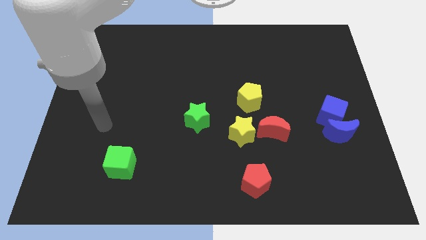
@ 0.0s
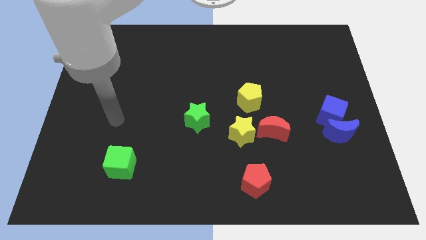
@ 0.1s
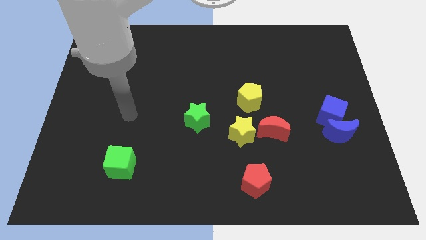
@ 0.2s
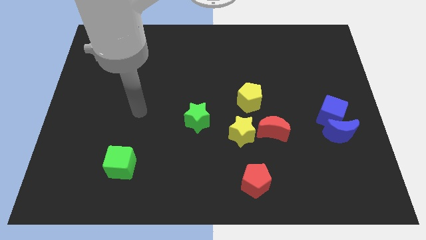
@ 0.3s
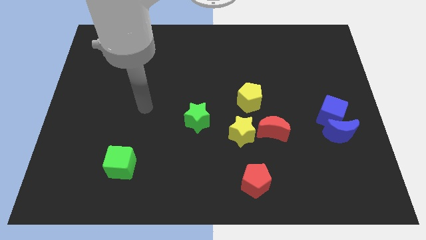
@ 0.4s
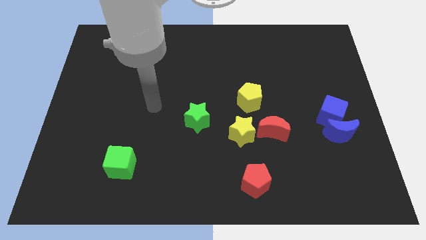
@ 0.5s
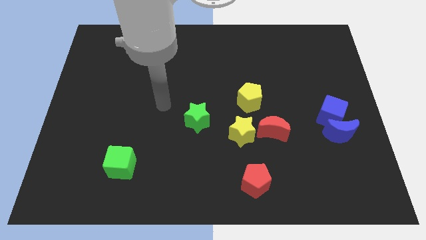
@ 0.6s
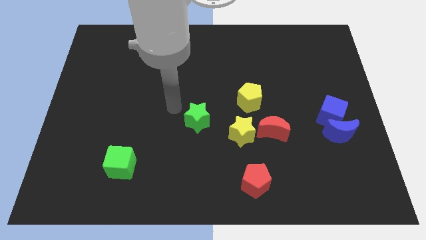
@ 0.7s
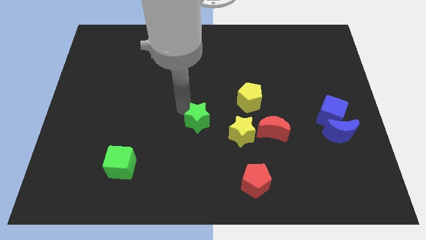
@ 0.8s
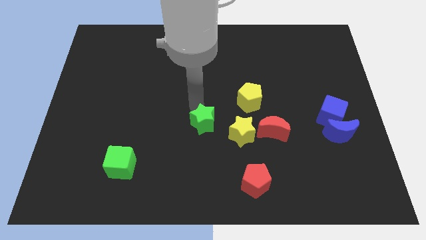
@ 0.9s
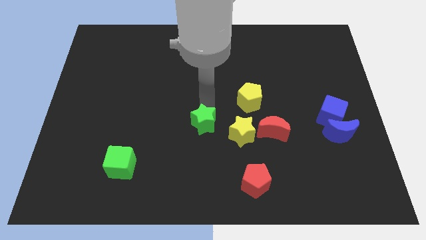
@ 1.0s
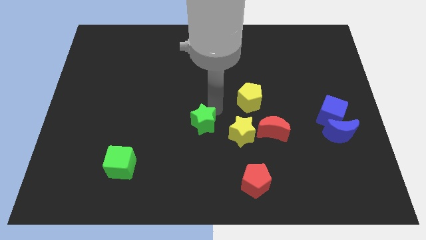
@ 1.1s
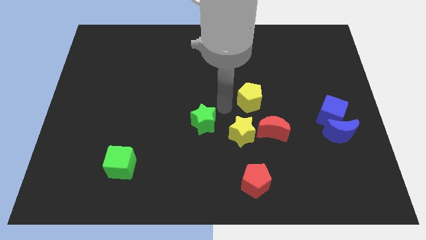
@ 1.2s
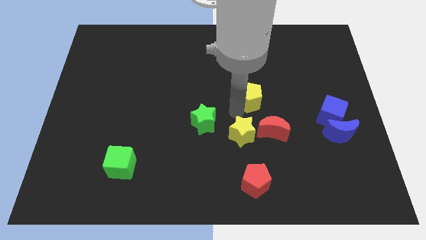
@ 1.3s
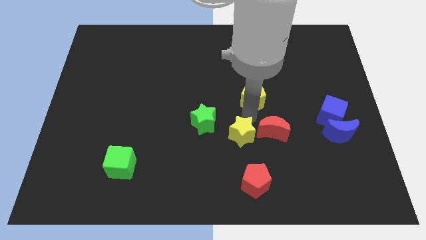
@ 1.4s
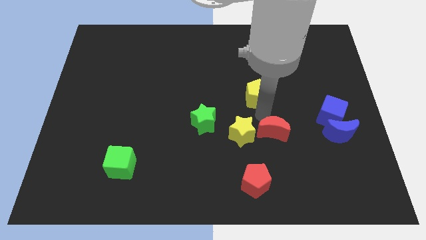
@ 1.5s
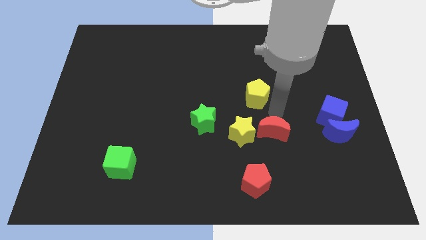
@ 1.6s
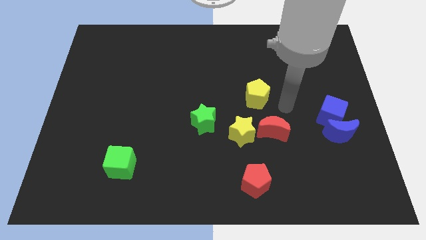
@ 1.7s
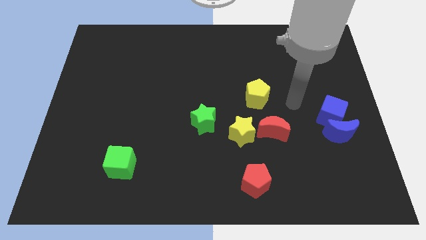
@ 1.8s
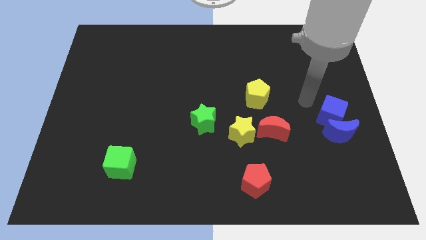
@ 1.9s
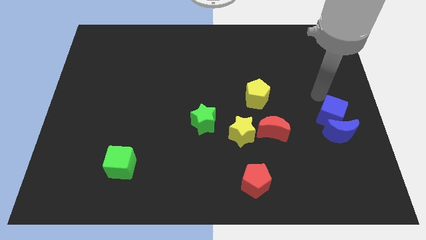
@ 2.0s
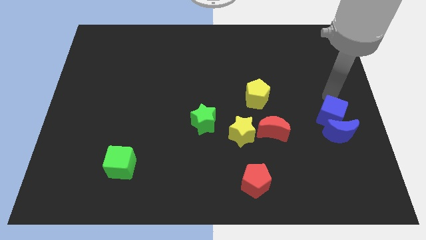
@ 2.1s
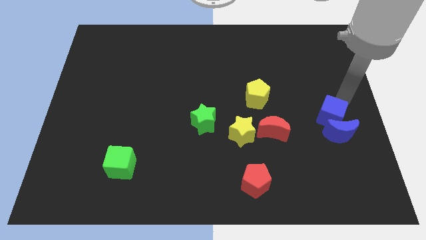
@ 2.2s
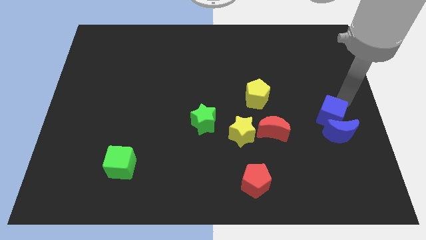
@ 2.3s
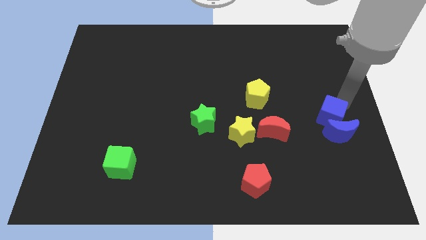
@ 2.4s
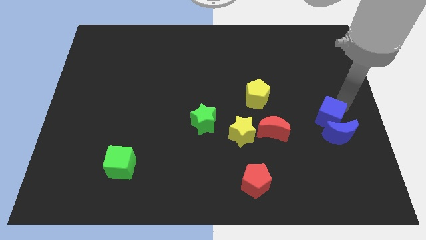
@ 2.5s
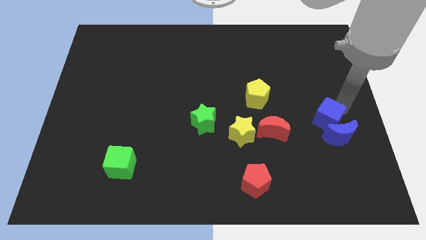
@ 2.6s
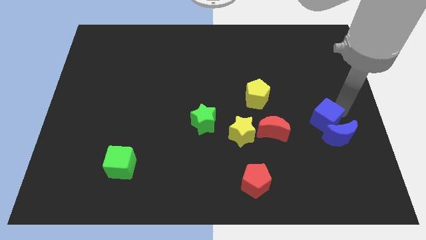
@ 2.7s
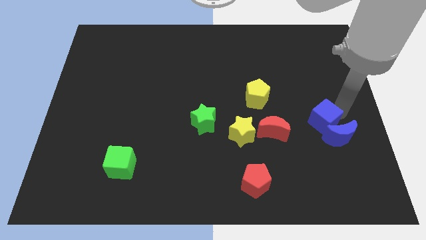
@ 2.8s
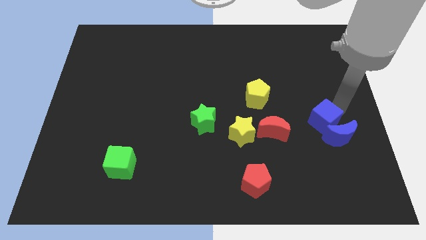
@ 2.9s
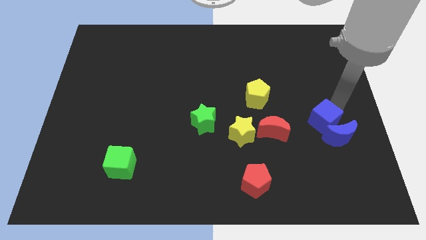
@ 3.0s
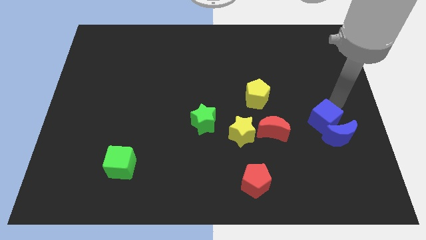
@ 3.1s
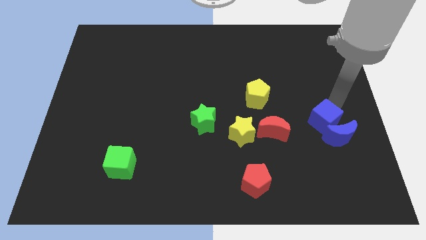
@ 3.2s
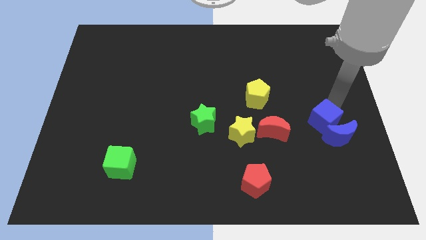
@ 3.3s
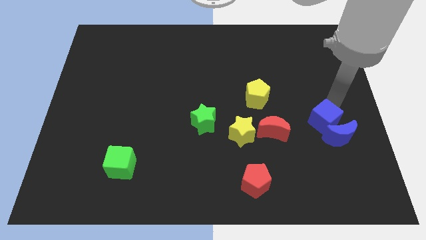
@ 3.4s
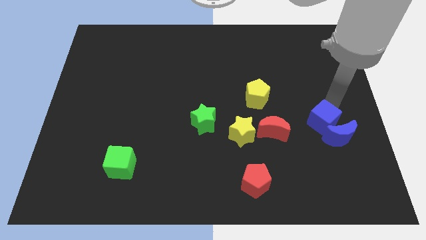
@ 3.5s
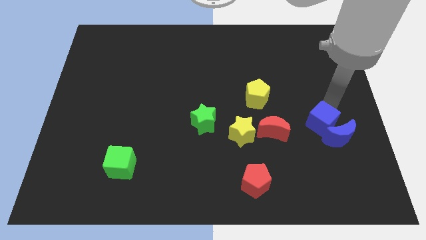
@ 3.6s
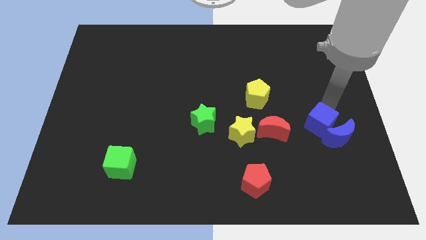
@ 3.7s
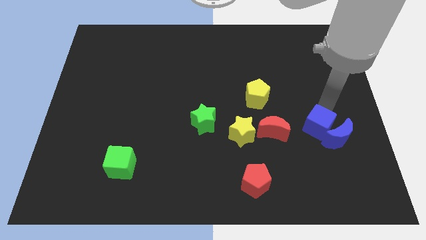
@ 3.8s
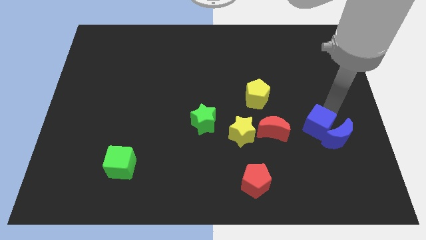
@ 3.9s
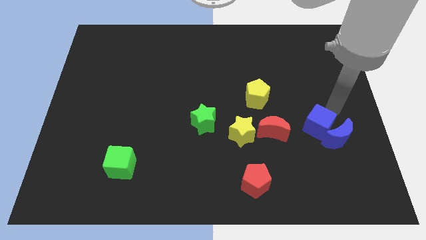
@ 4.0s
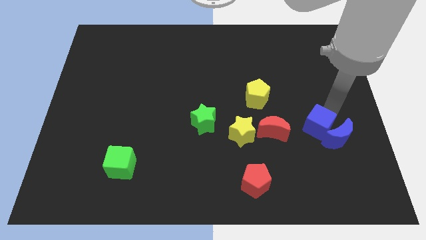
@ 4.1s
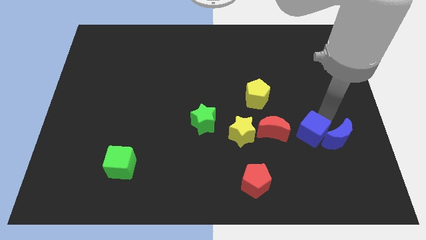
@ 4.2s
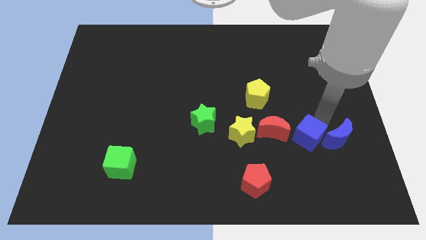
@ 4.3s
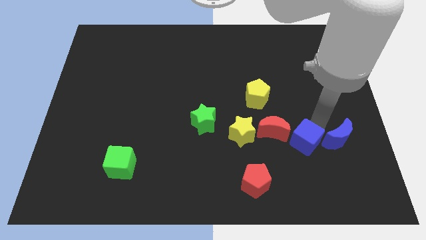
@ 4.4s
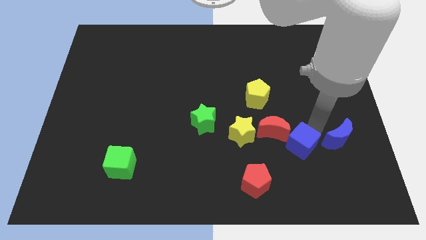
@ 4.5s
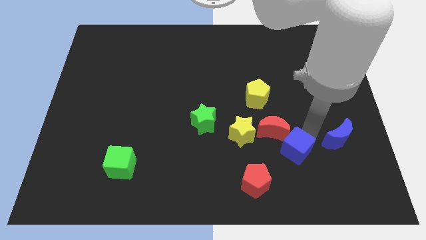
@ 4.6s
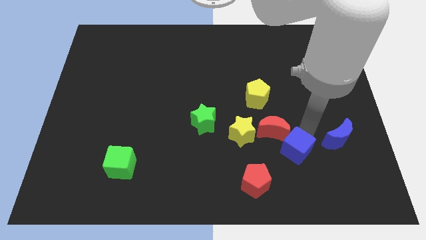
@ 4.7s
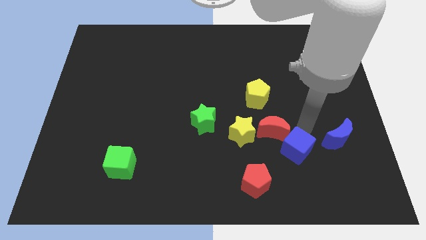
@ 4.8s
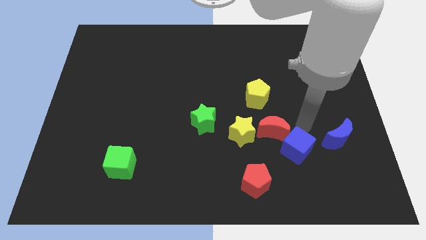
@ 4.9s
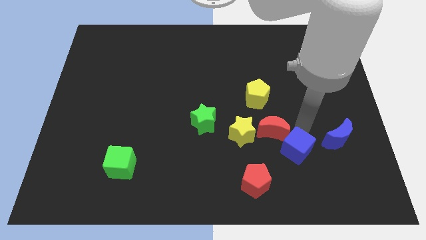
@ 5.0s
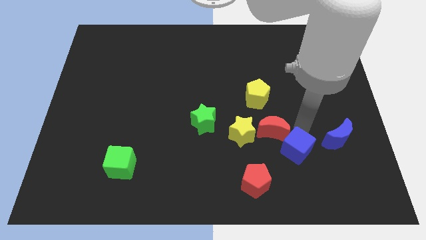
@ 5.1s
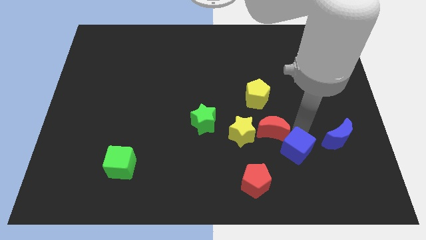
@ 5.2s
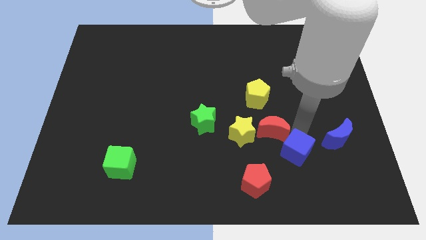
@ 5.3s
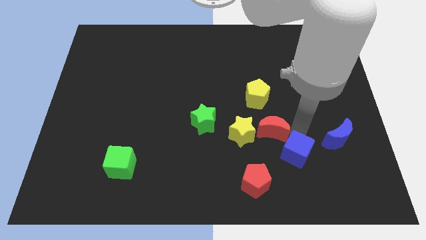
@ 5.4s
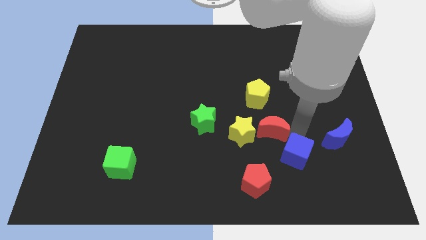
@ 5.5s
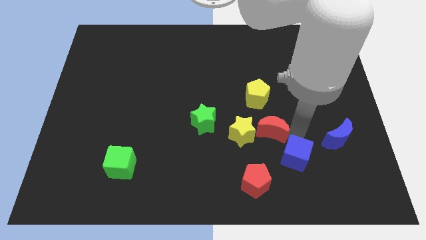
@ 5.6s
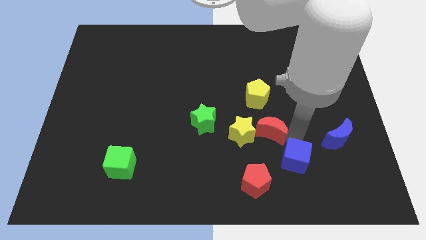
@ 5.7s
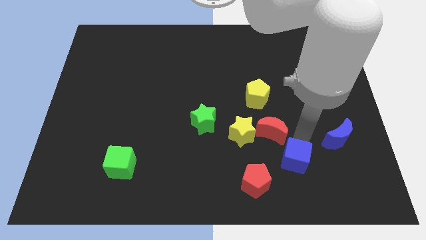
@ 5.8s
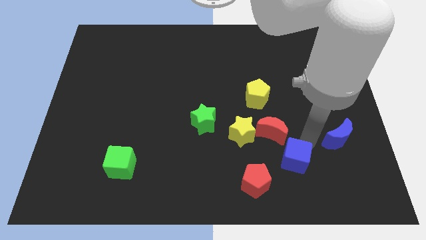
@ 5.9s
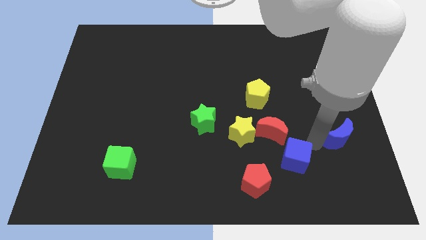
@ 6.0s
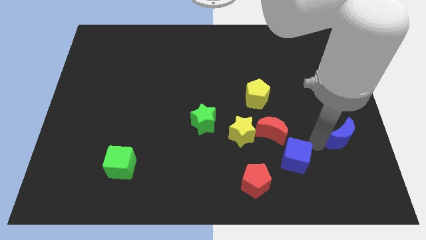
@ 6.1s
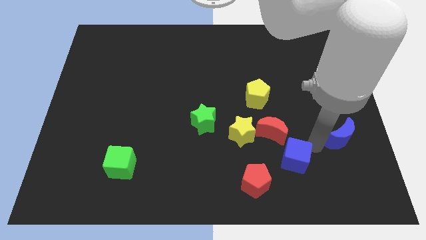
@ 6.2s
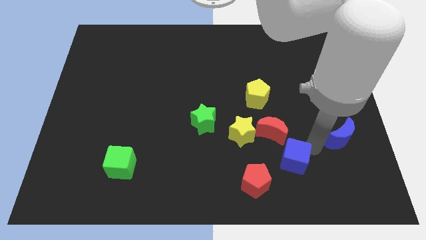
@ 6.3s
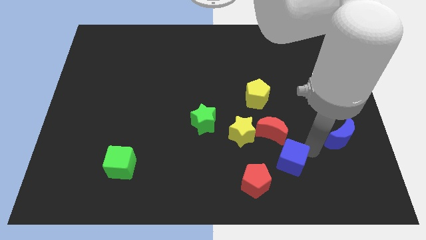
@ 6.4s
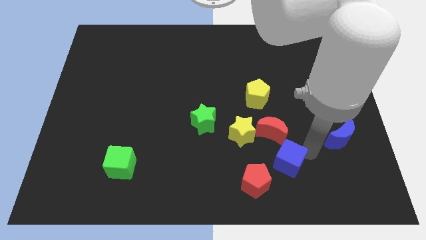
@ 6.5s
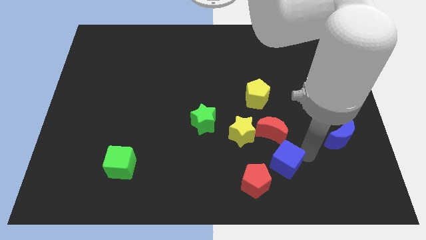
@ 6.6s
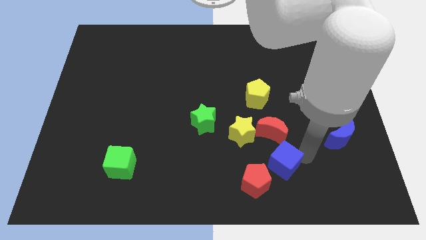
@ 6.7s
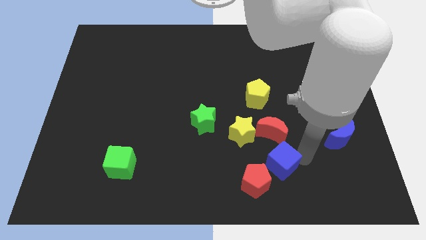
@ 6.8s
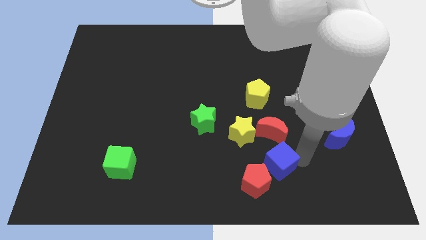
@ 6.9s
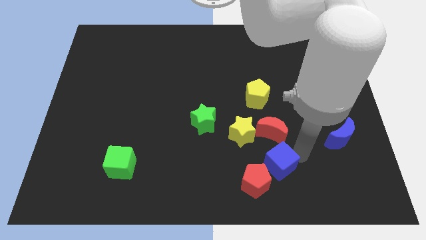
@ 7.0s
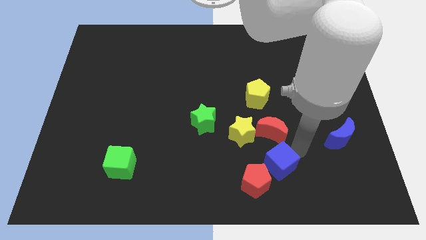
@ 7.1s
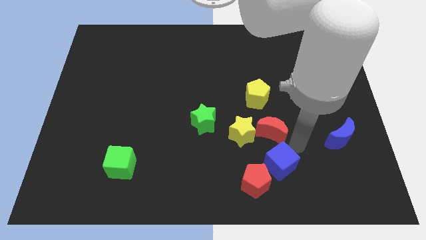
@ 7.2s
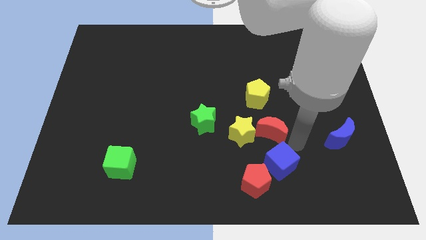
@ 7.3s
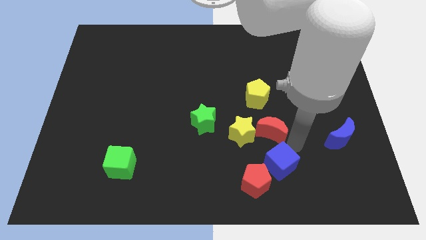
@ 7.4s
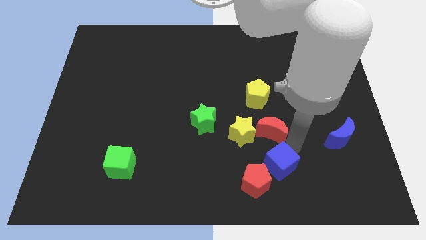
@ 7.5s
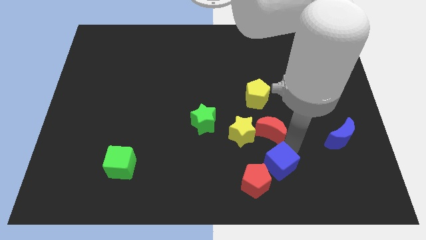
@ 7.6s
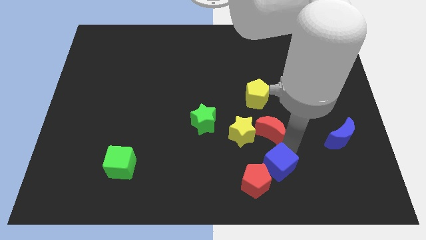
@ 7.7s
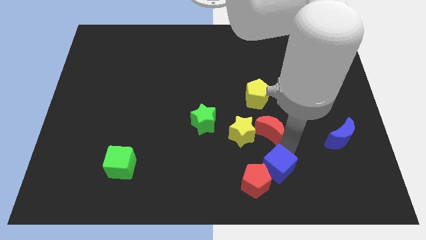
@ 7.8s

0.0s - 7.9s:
push the blue cube close to the red pentagon
